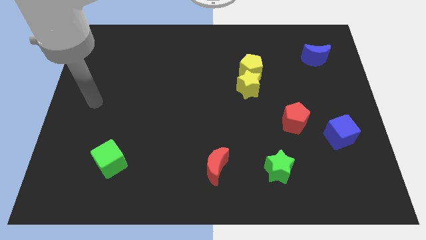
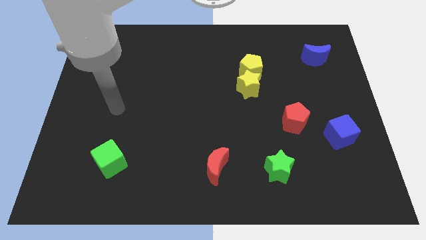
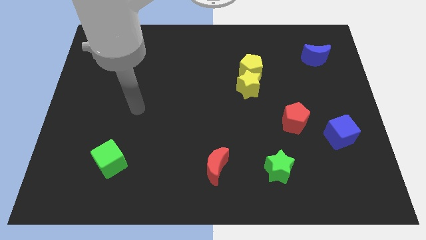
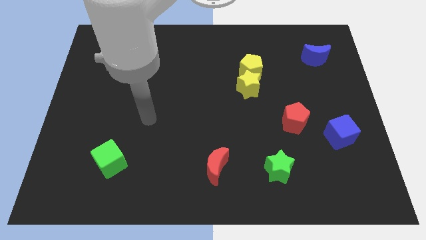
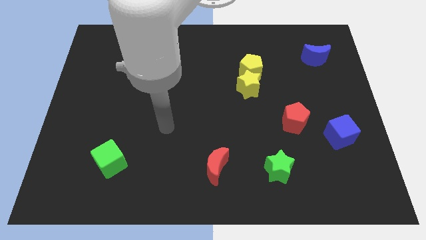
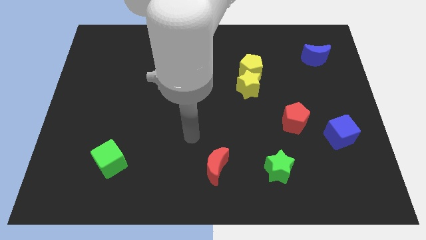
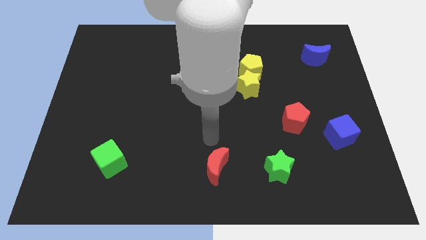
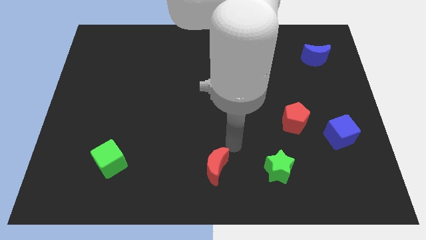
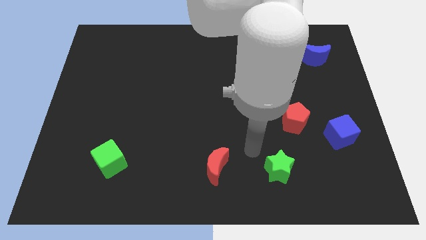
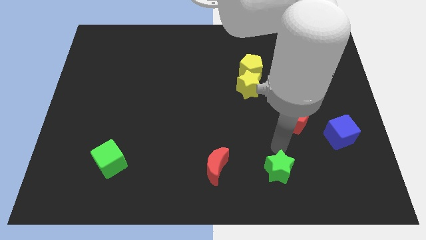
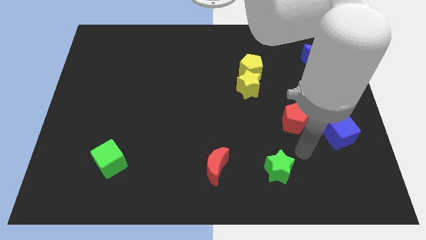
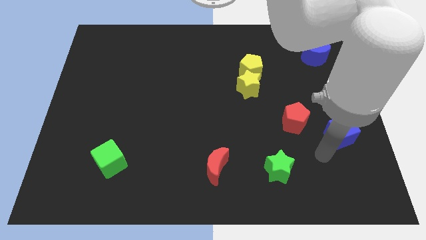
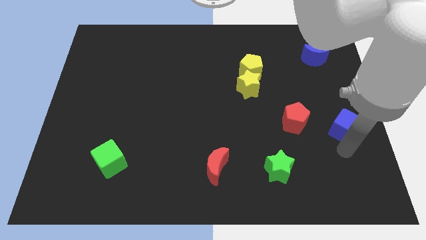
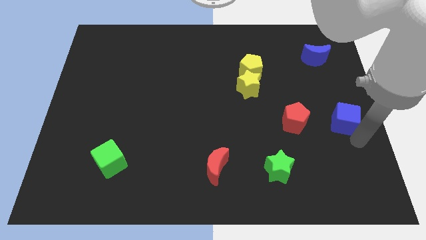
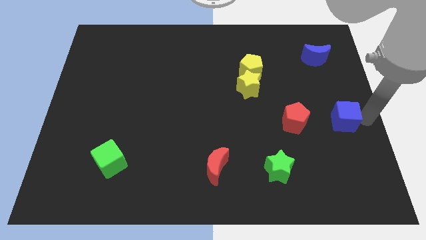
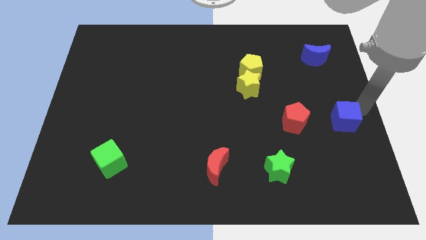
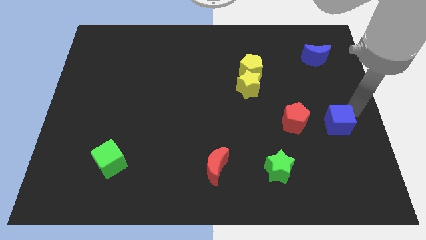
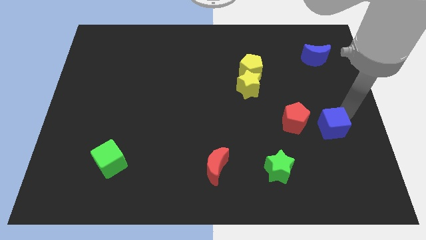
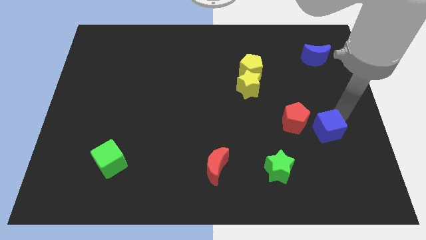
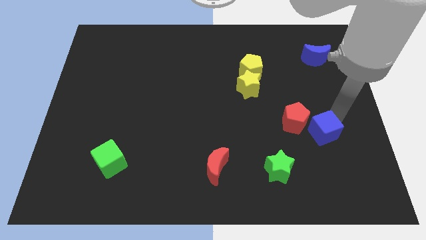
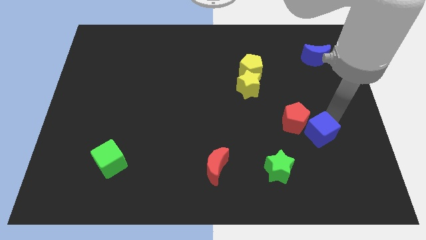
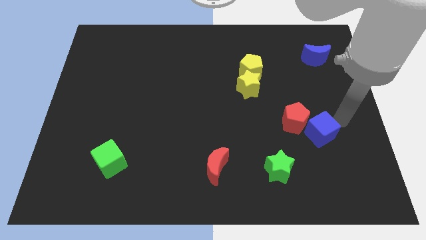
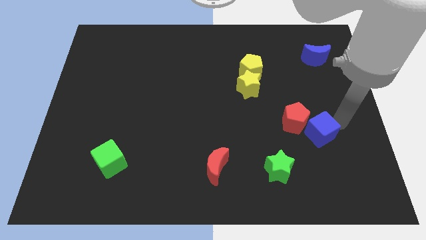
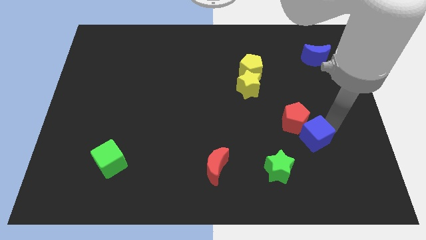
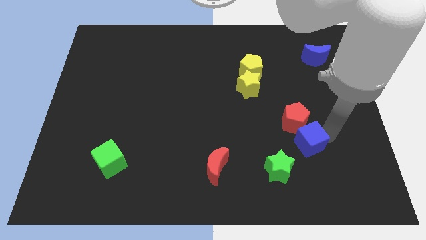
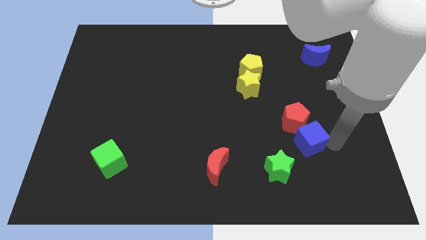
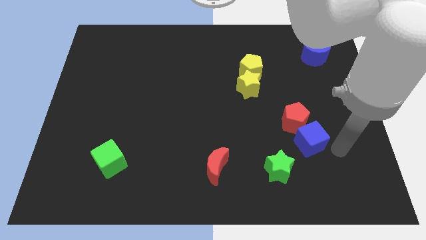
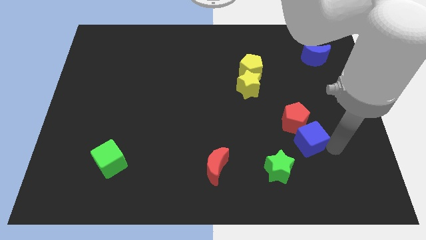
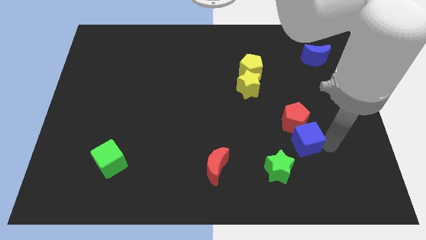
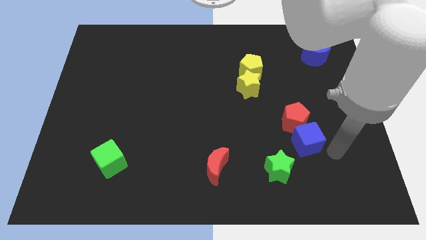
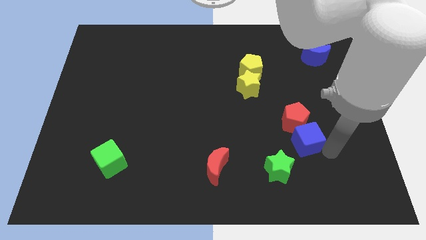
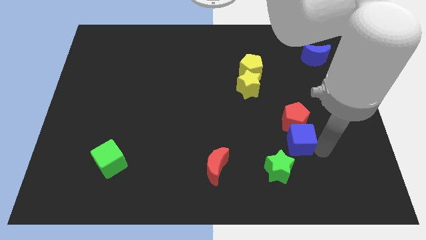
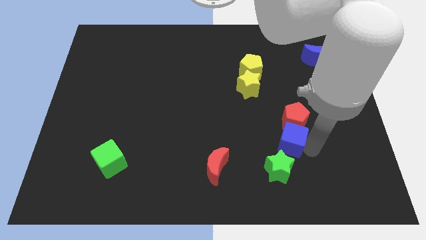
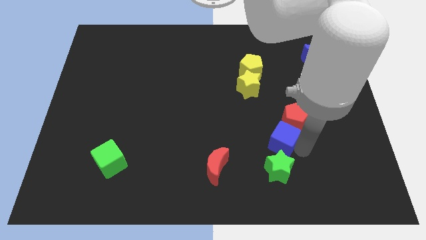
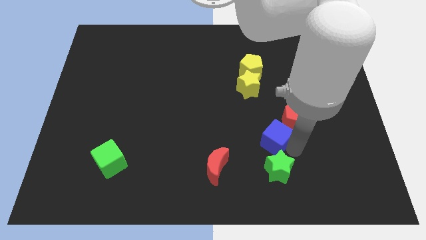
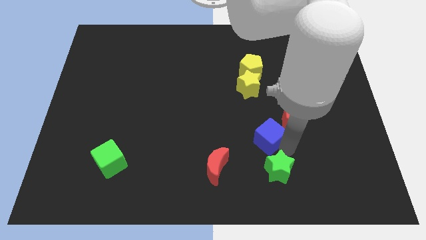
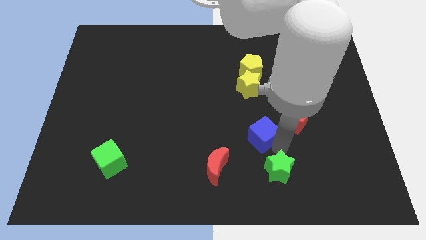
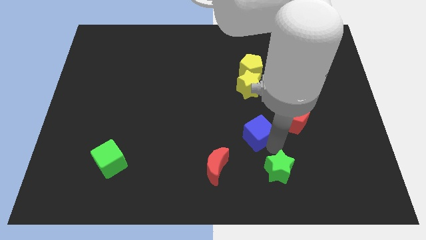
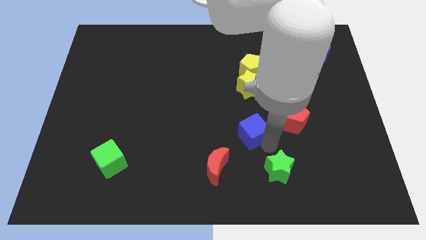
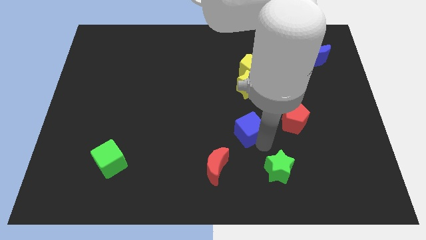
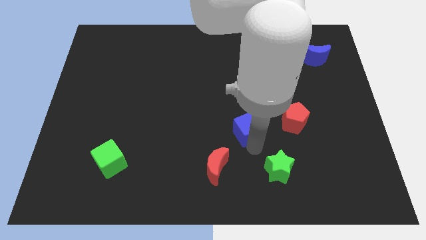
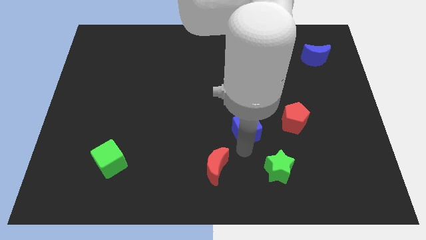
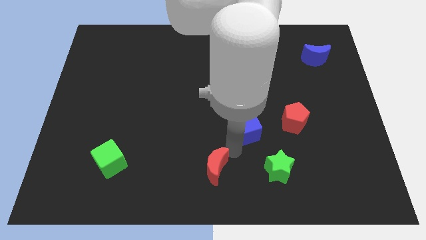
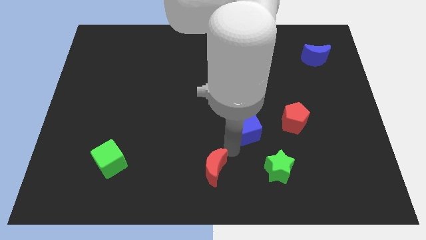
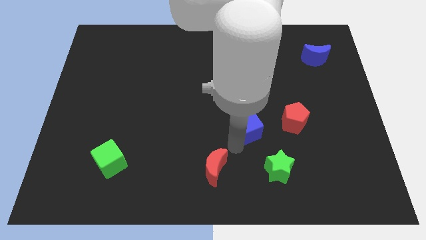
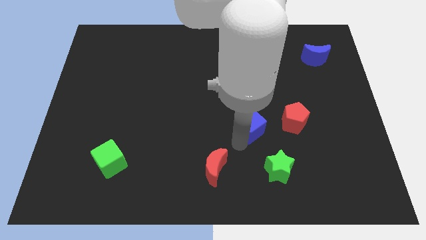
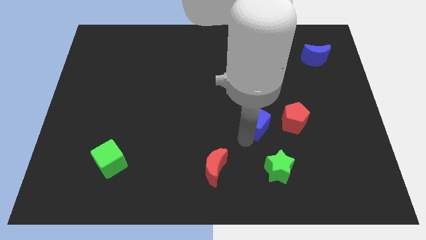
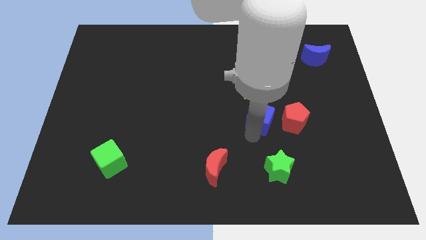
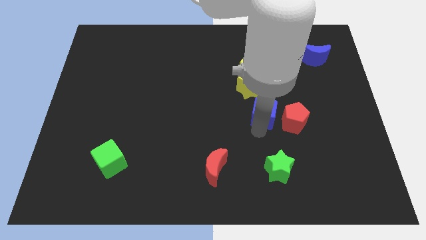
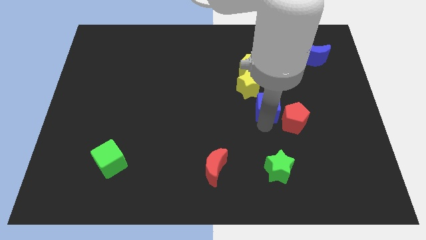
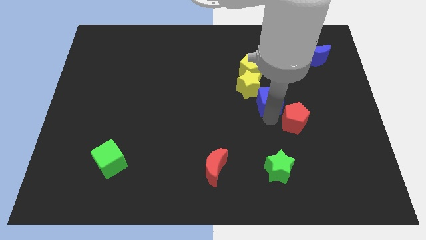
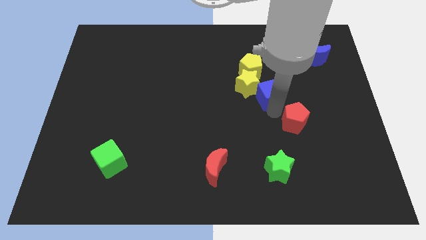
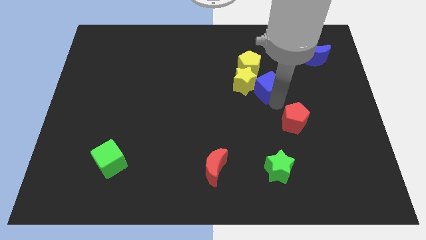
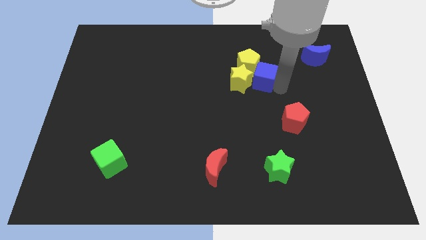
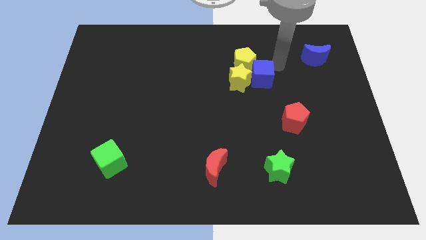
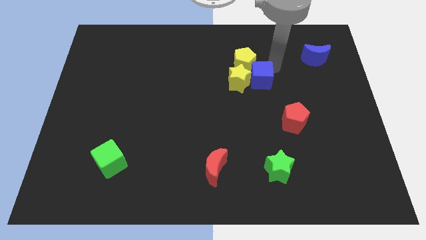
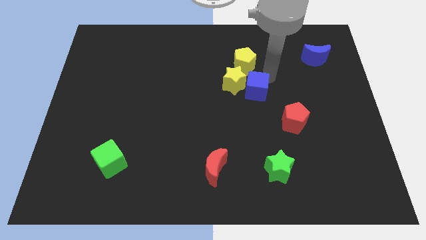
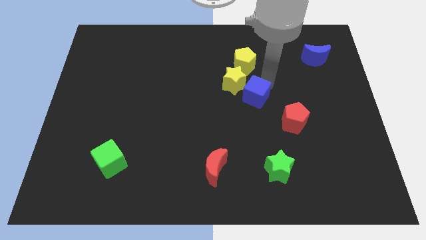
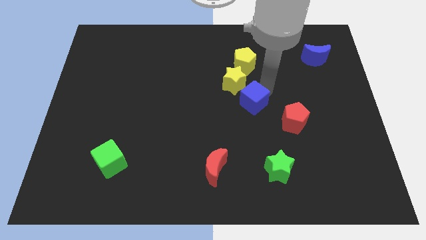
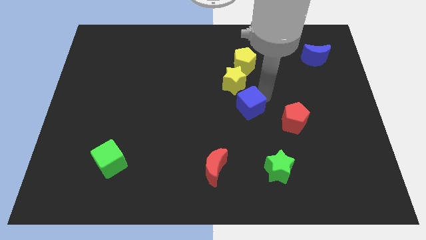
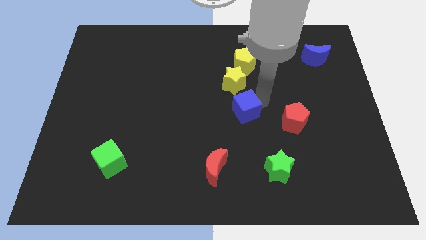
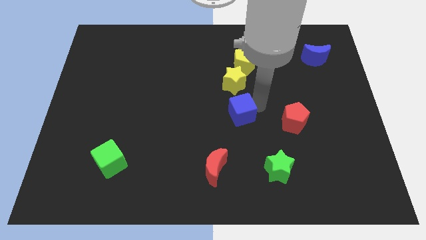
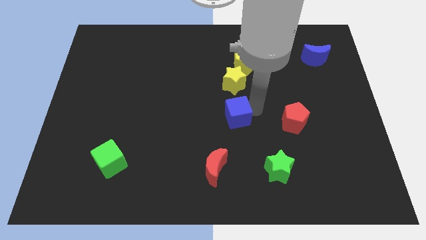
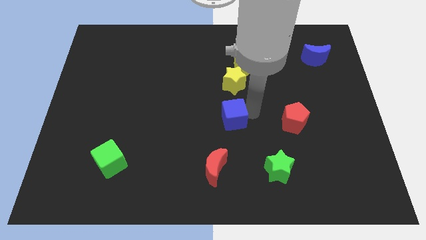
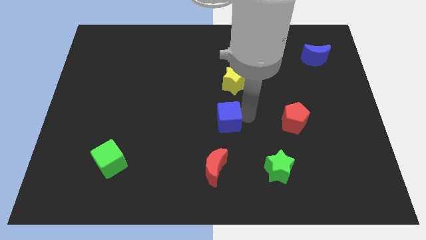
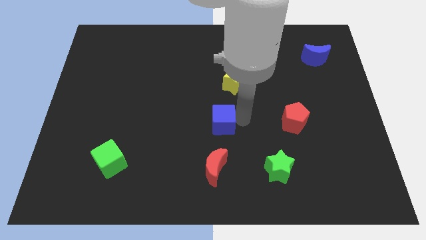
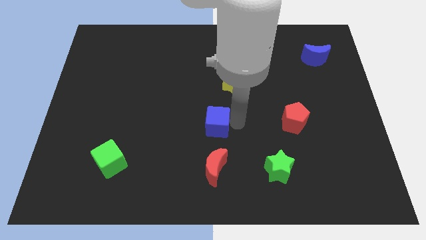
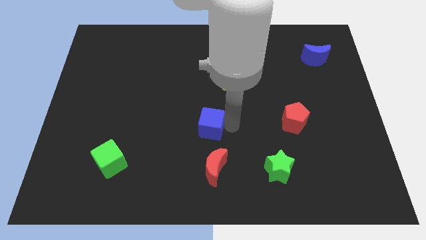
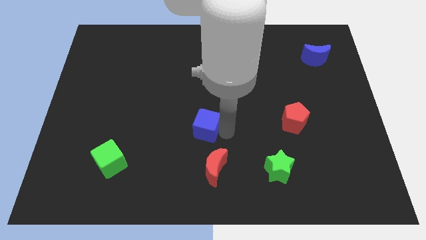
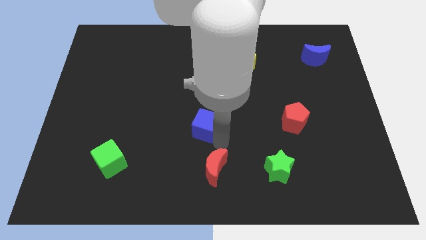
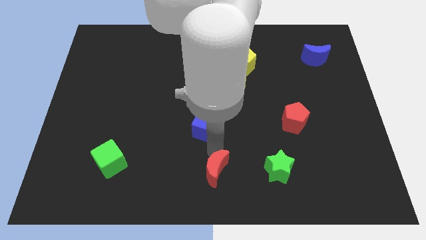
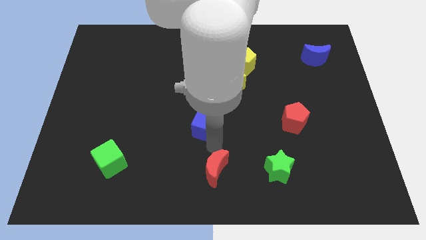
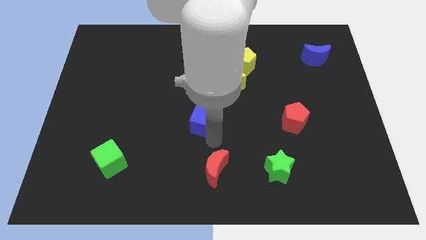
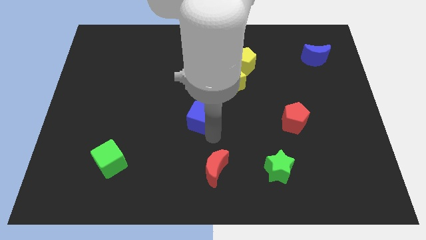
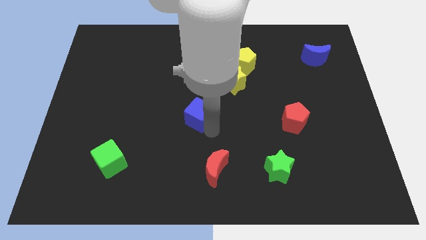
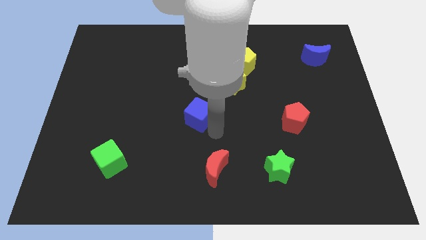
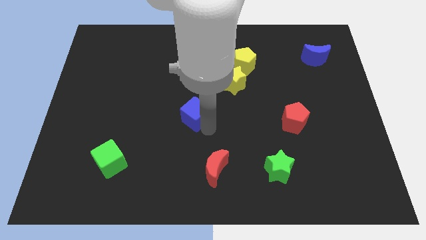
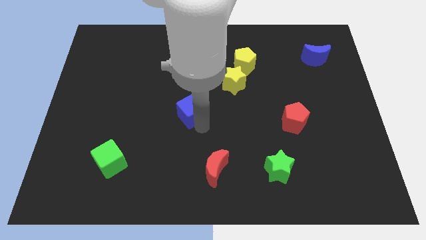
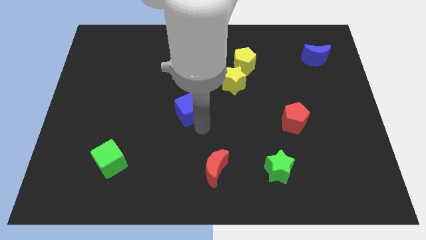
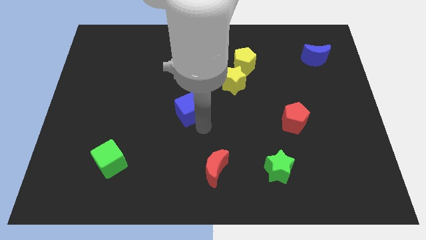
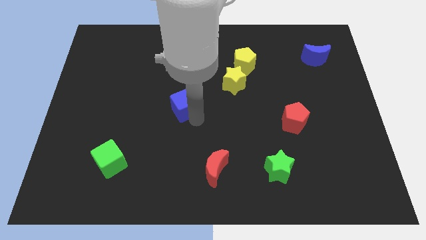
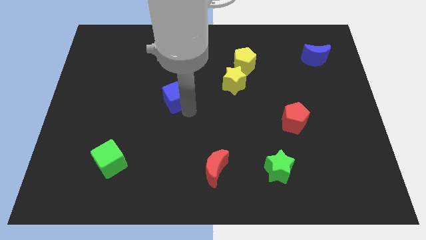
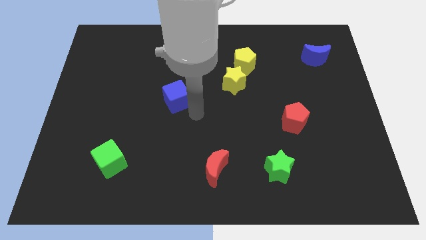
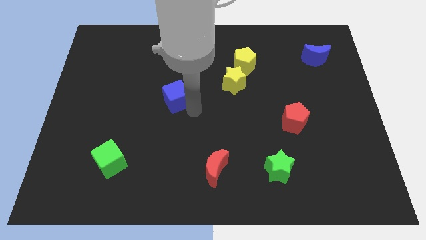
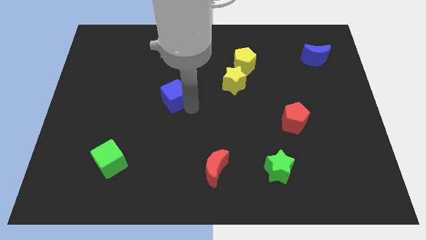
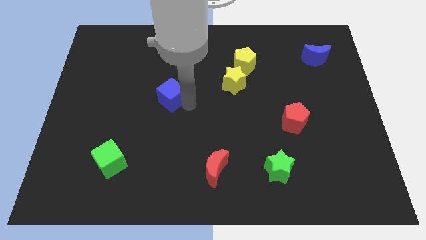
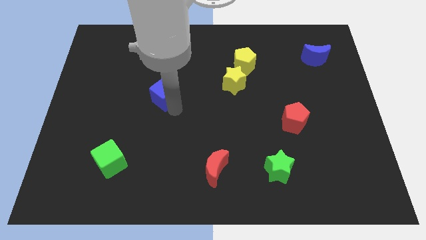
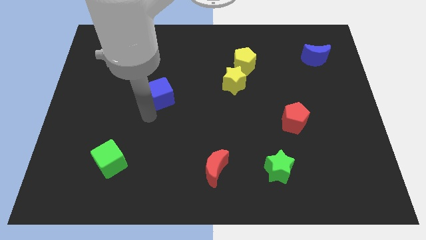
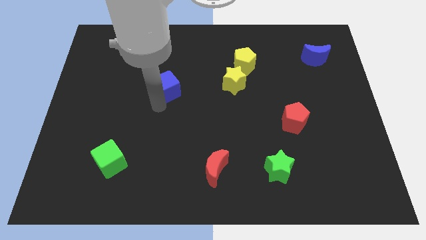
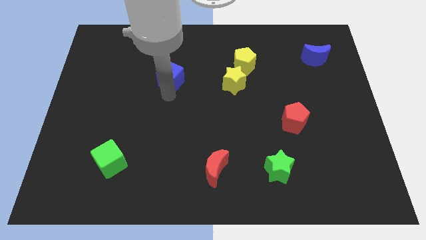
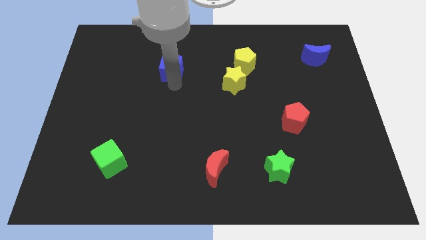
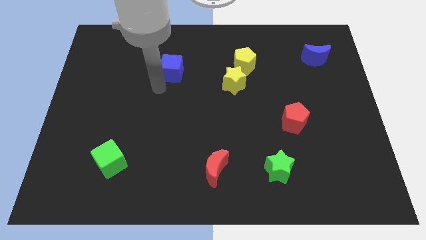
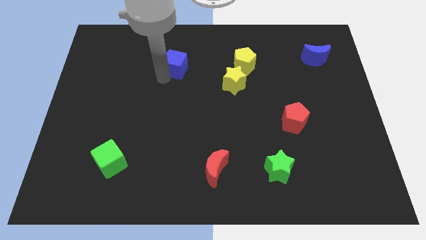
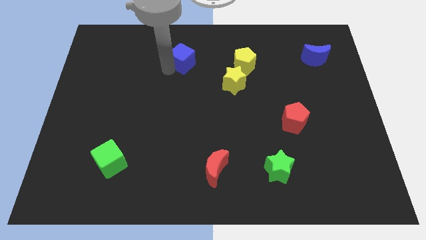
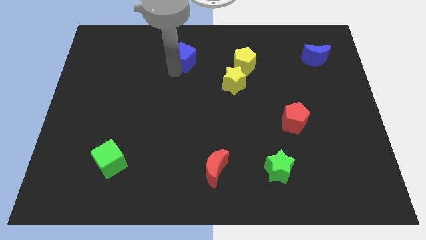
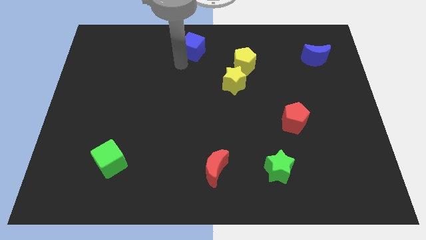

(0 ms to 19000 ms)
slide the blue cube to the top side
